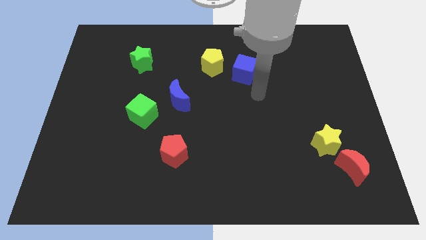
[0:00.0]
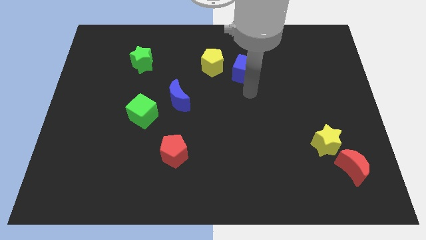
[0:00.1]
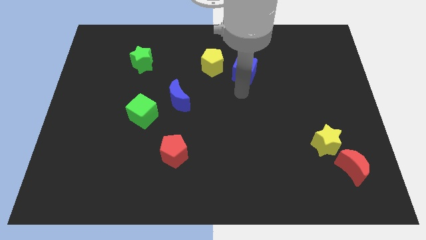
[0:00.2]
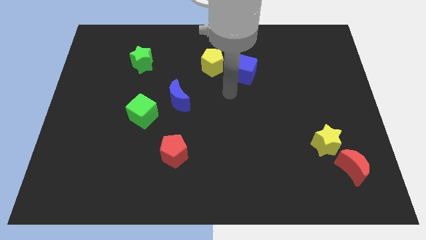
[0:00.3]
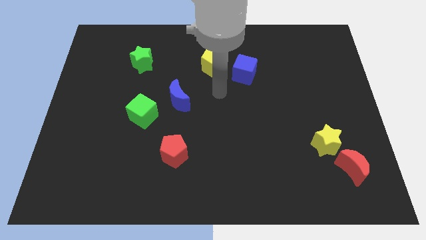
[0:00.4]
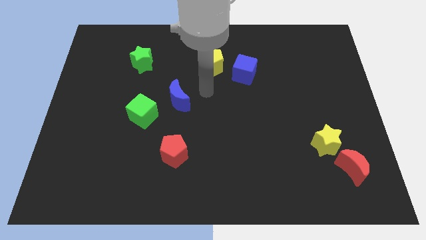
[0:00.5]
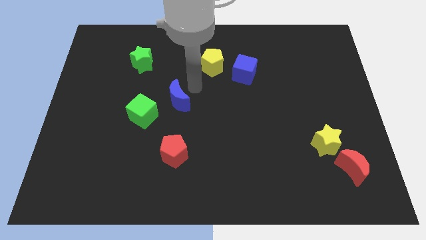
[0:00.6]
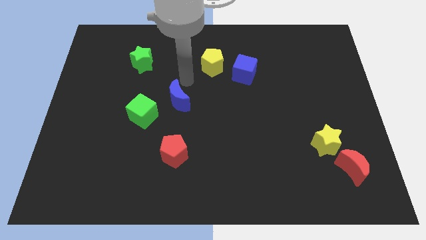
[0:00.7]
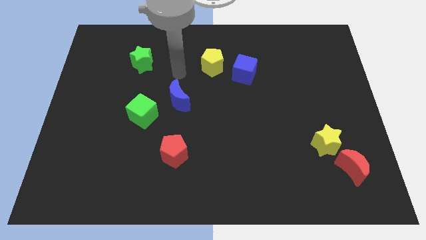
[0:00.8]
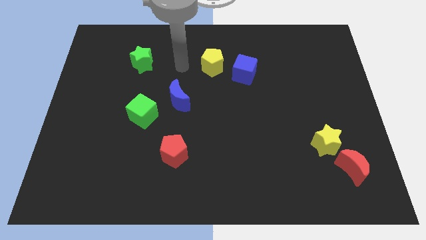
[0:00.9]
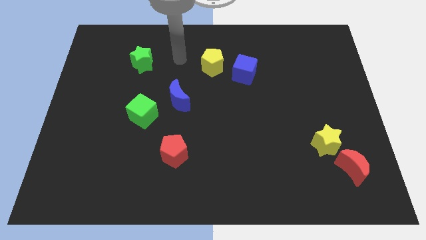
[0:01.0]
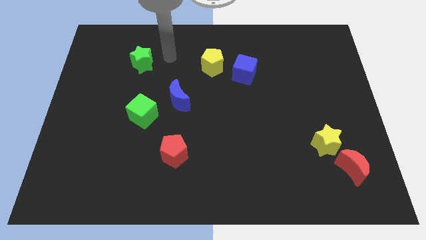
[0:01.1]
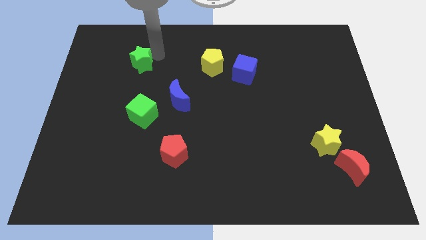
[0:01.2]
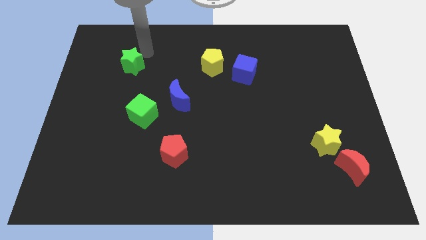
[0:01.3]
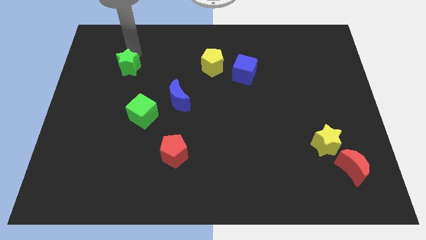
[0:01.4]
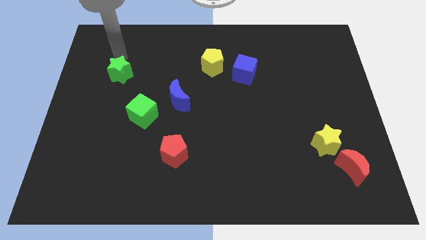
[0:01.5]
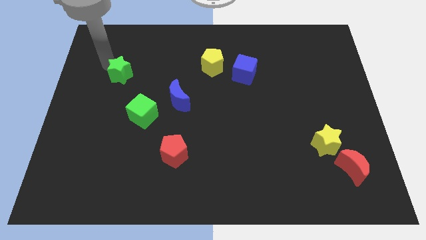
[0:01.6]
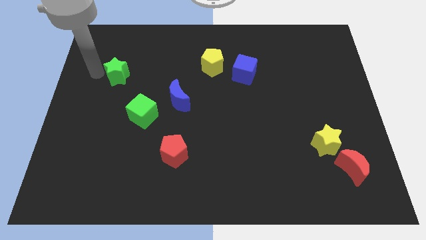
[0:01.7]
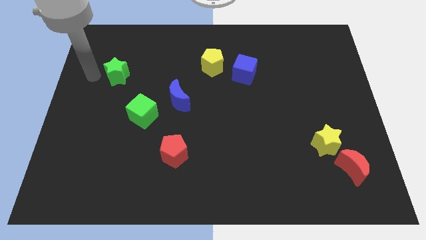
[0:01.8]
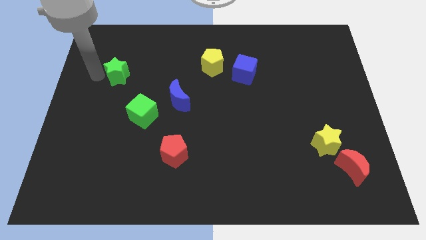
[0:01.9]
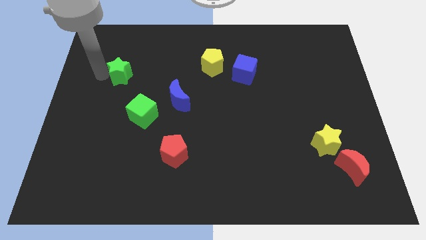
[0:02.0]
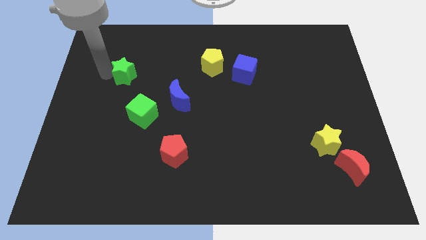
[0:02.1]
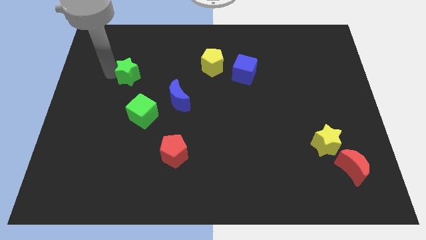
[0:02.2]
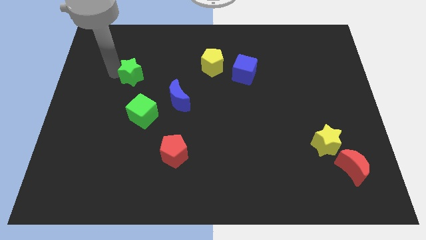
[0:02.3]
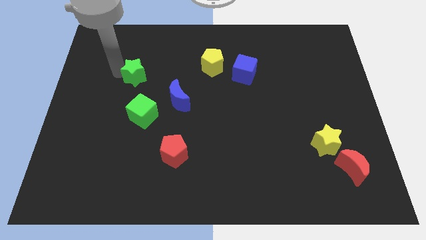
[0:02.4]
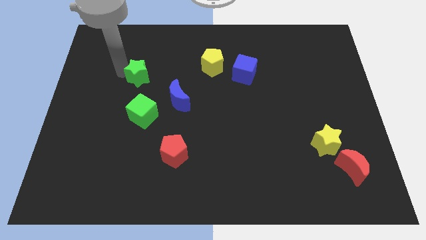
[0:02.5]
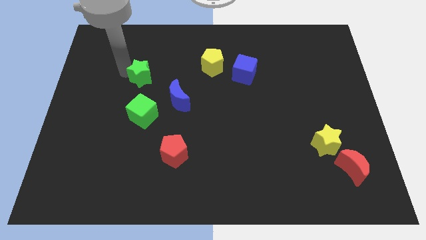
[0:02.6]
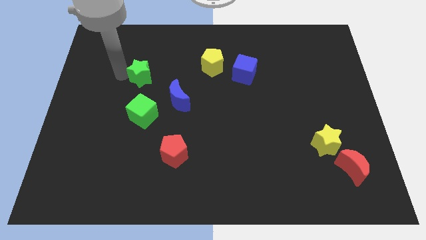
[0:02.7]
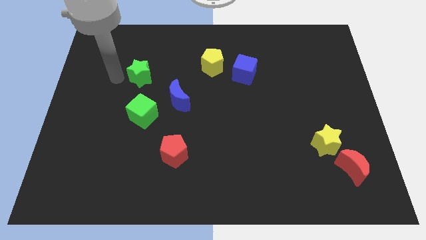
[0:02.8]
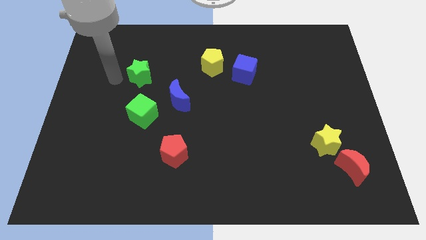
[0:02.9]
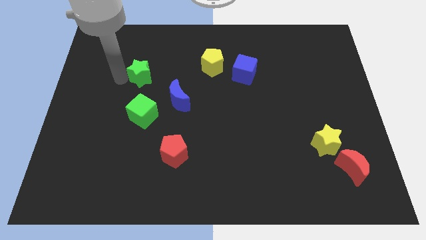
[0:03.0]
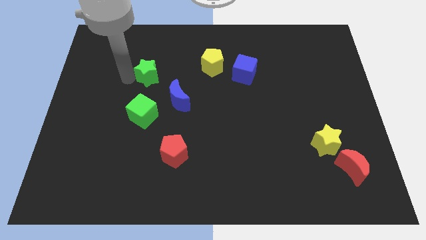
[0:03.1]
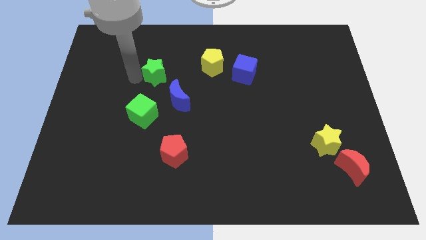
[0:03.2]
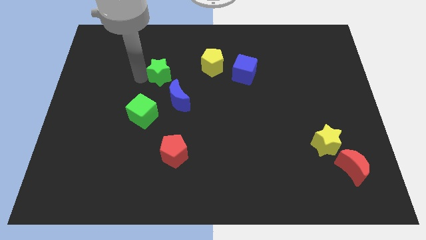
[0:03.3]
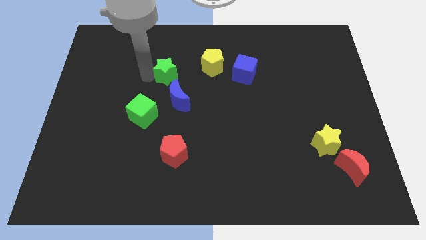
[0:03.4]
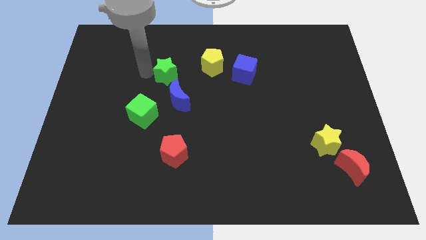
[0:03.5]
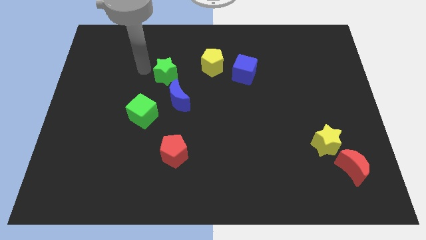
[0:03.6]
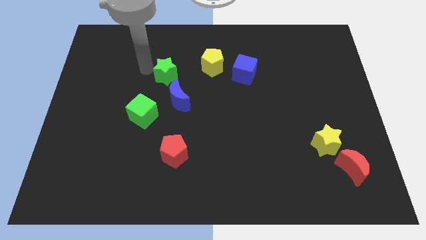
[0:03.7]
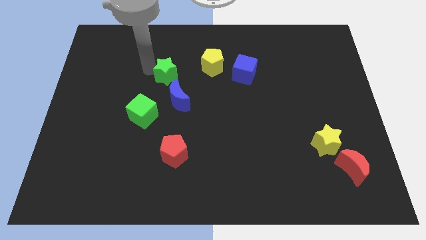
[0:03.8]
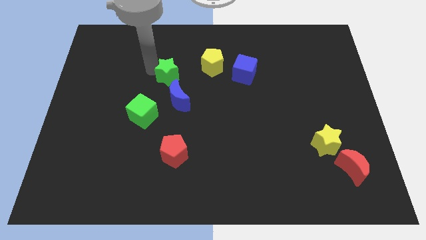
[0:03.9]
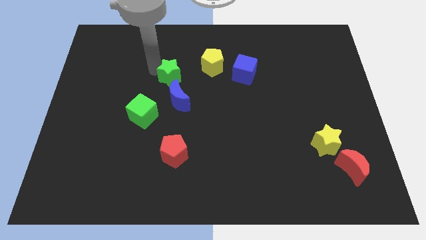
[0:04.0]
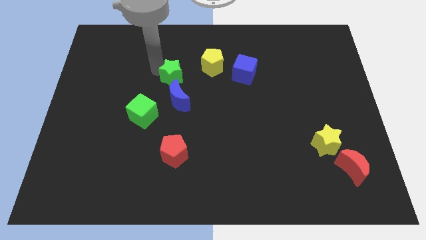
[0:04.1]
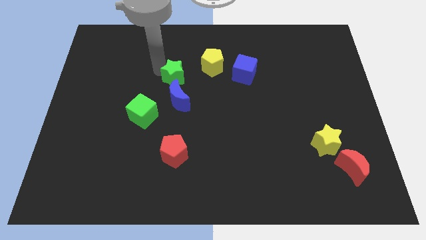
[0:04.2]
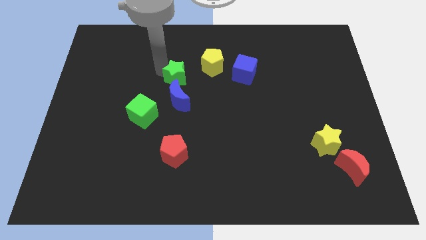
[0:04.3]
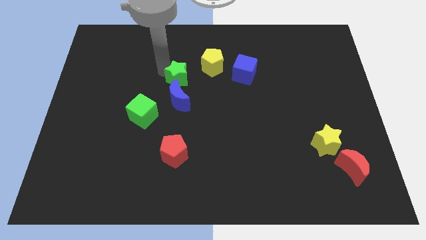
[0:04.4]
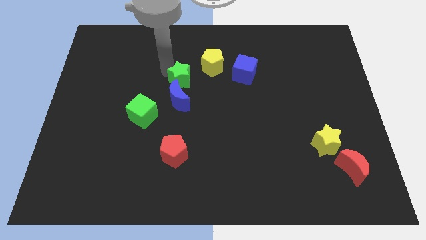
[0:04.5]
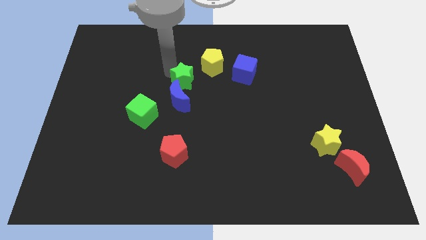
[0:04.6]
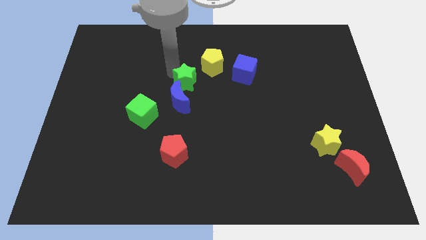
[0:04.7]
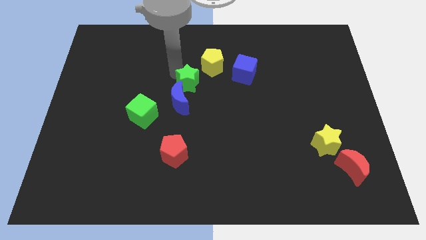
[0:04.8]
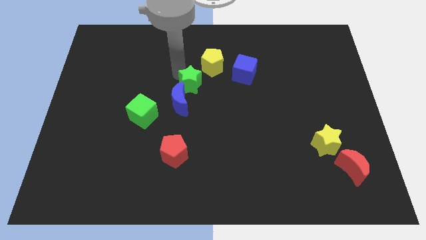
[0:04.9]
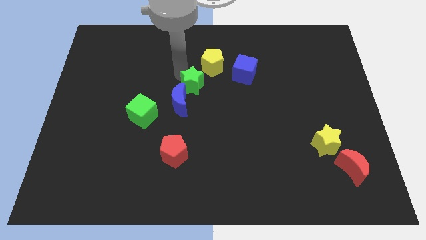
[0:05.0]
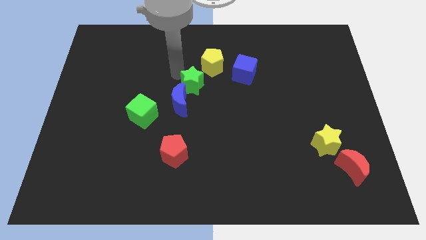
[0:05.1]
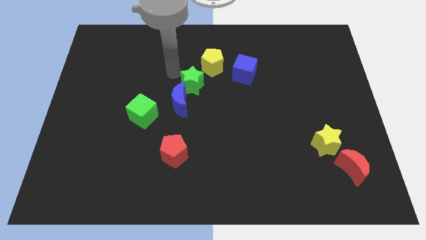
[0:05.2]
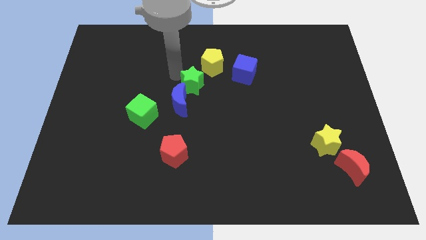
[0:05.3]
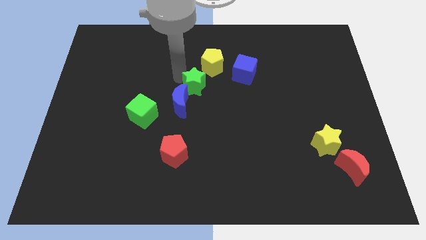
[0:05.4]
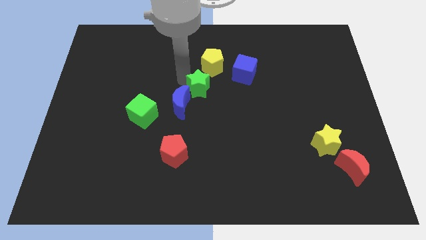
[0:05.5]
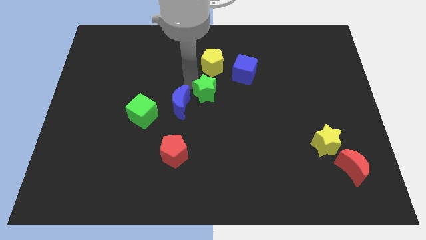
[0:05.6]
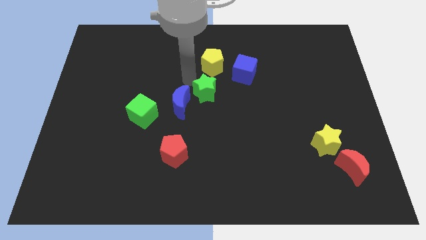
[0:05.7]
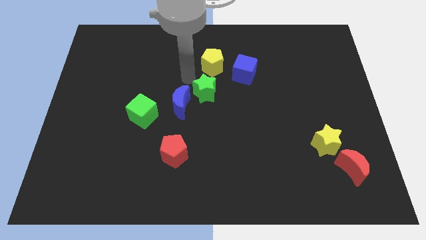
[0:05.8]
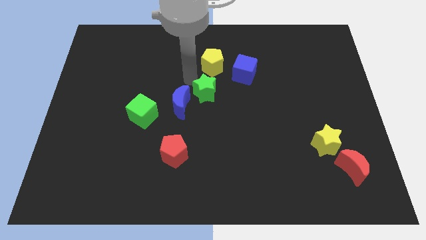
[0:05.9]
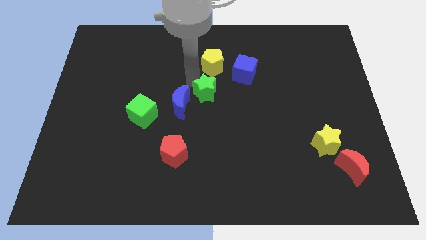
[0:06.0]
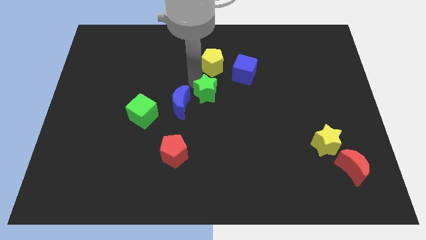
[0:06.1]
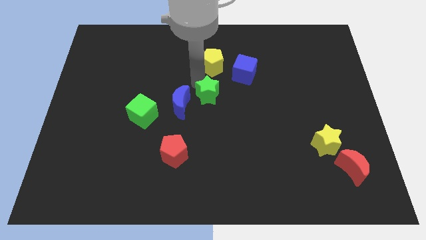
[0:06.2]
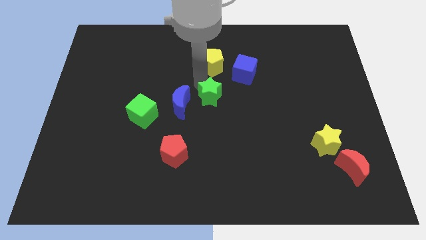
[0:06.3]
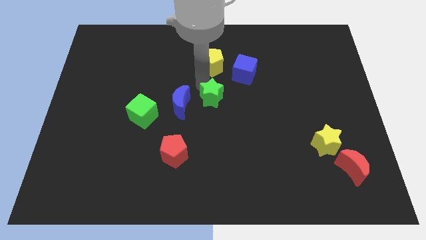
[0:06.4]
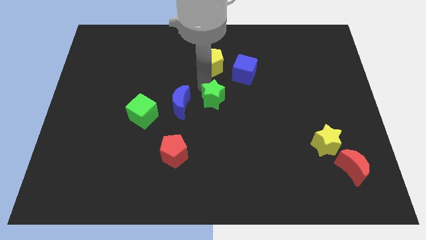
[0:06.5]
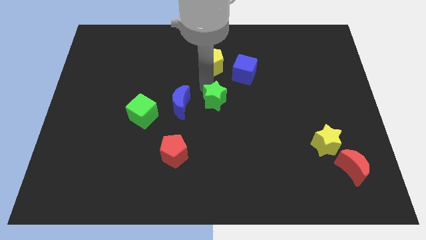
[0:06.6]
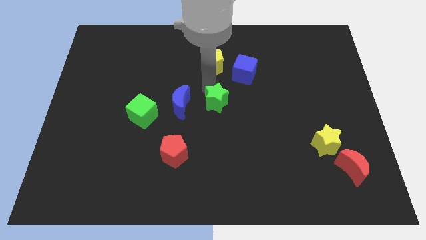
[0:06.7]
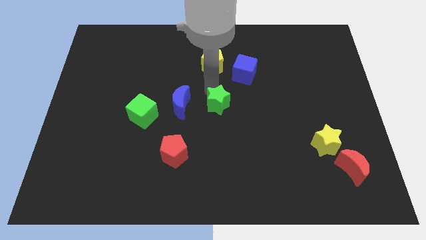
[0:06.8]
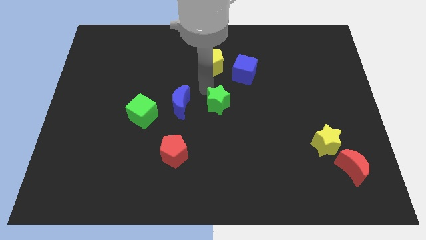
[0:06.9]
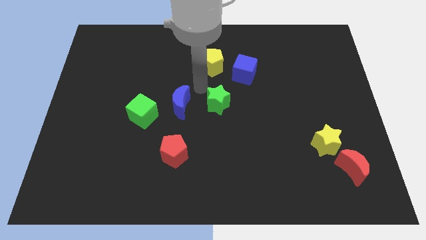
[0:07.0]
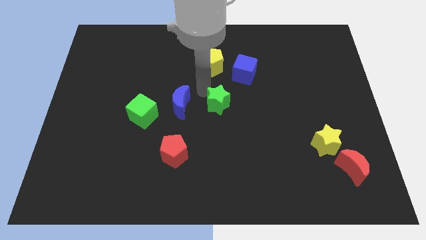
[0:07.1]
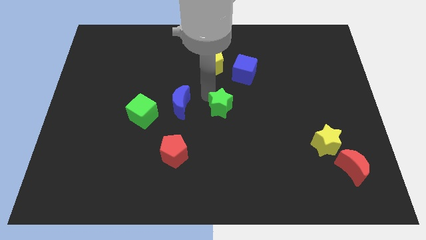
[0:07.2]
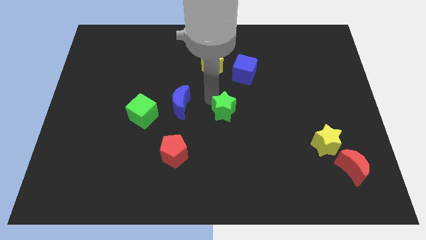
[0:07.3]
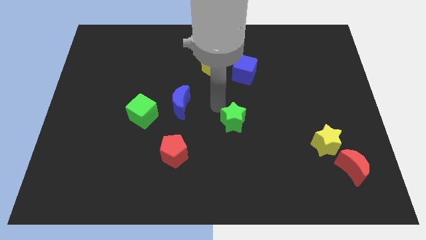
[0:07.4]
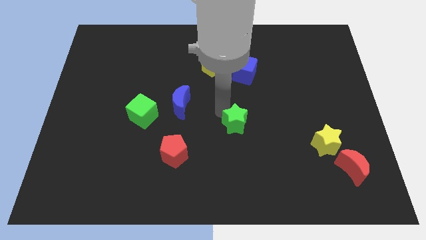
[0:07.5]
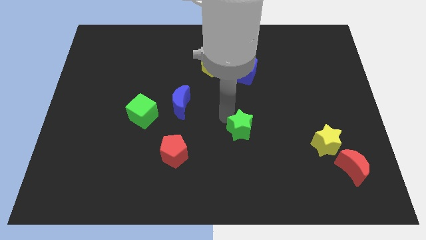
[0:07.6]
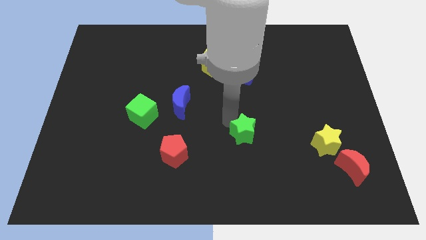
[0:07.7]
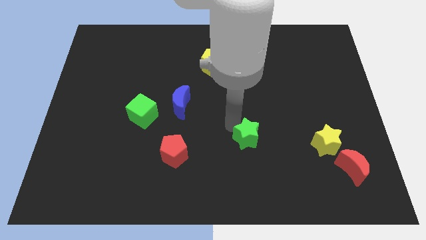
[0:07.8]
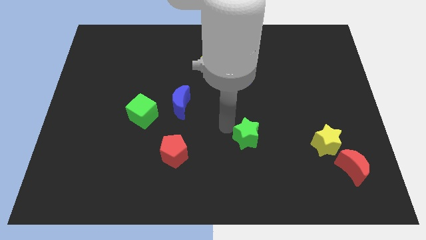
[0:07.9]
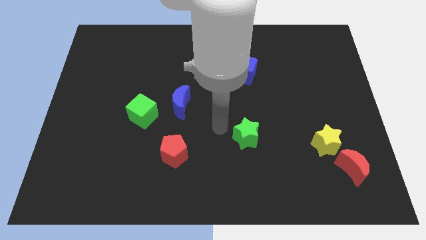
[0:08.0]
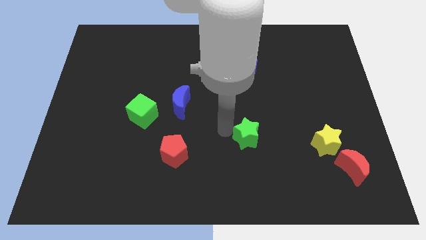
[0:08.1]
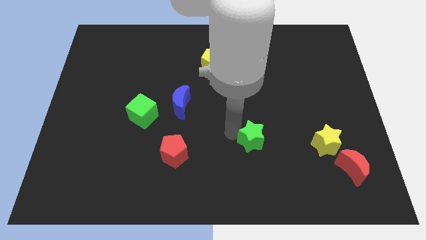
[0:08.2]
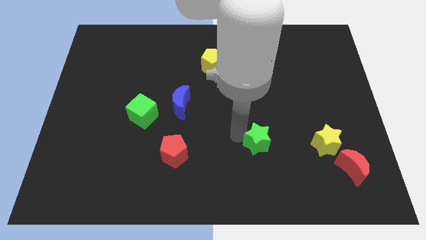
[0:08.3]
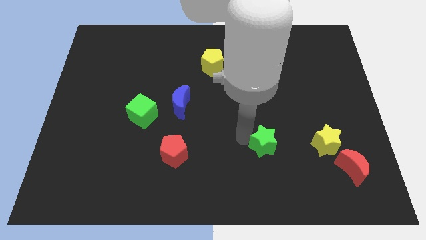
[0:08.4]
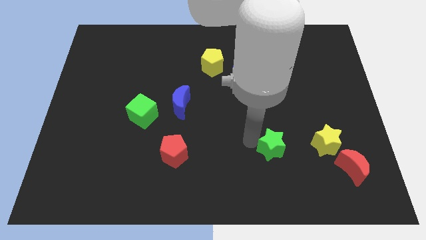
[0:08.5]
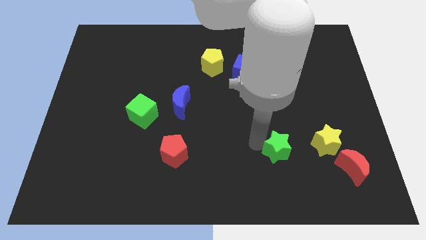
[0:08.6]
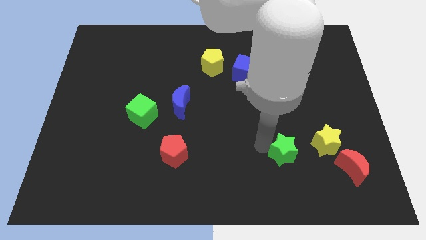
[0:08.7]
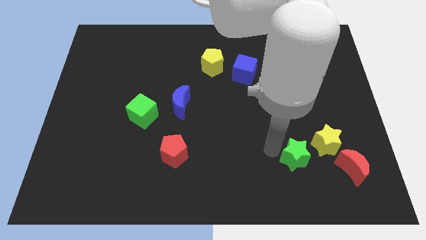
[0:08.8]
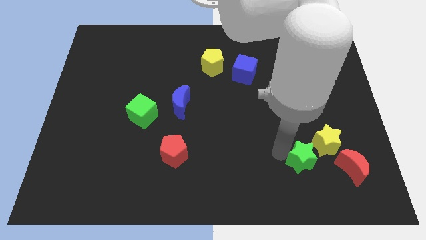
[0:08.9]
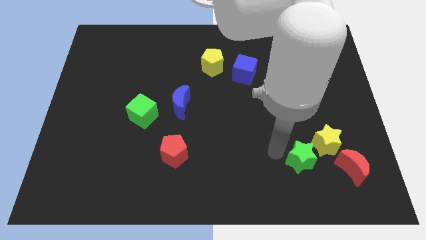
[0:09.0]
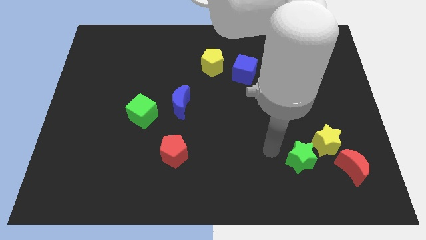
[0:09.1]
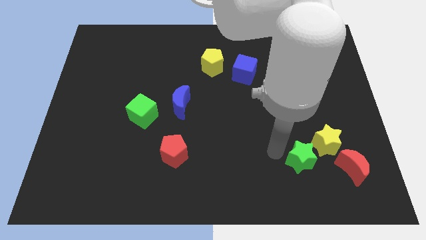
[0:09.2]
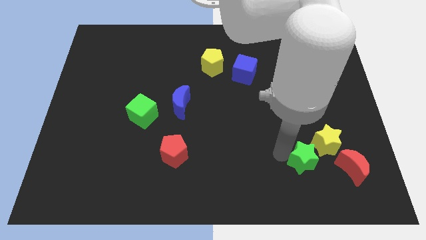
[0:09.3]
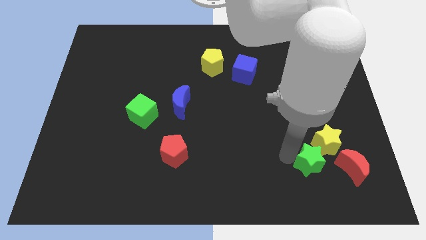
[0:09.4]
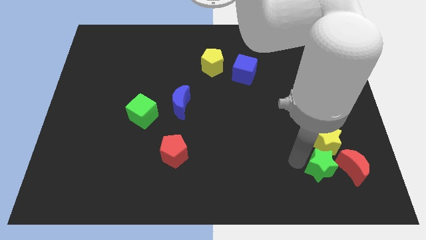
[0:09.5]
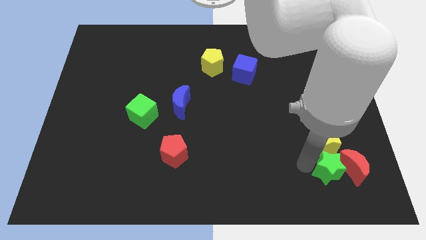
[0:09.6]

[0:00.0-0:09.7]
put the green star towards the red moon
